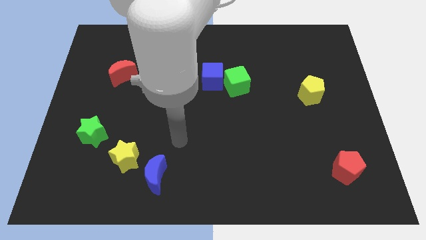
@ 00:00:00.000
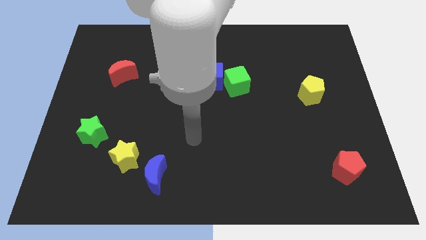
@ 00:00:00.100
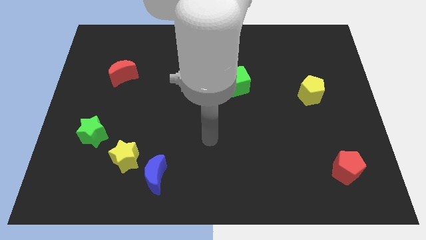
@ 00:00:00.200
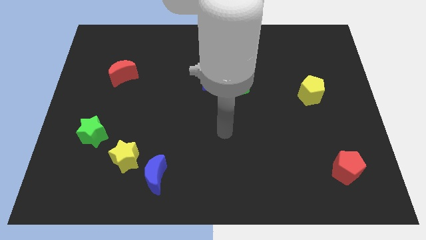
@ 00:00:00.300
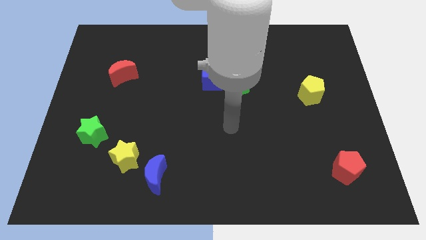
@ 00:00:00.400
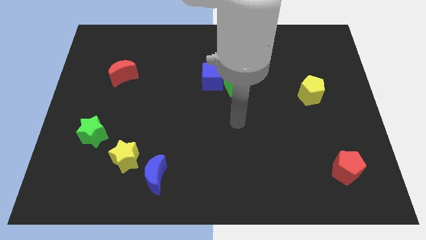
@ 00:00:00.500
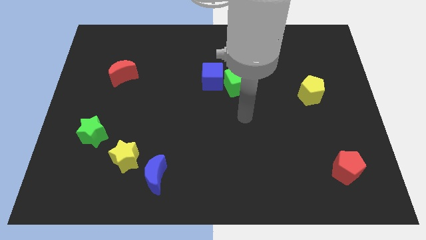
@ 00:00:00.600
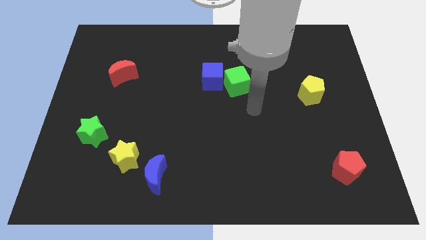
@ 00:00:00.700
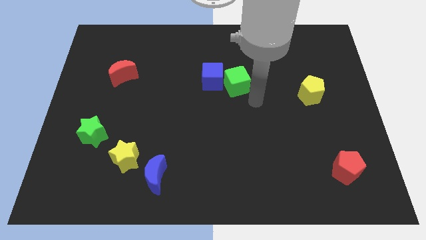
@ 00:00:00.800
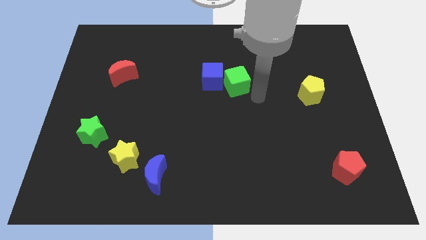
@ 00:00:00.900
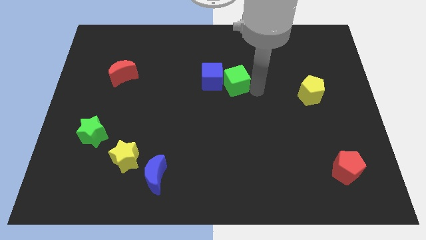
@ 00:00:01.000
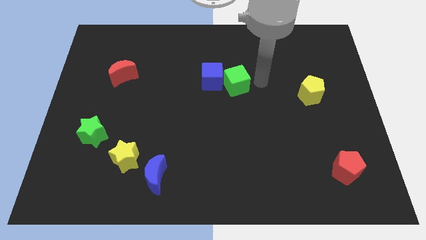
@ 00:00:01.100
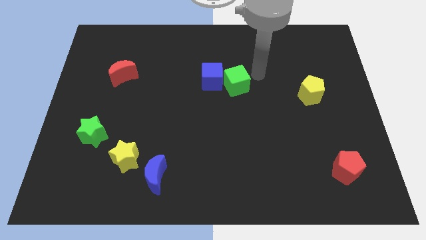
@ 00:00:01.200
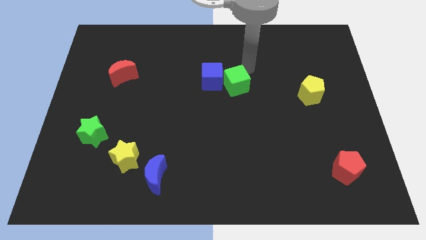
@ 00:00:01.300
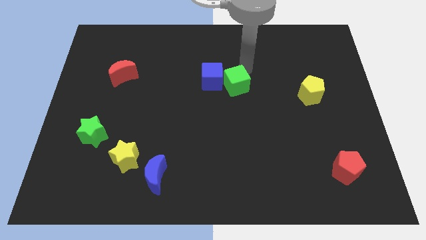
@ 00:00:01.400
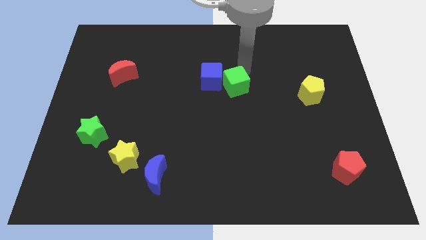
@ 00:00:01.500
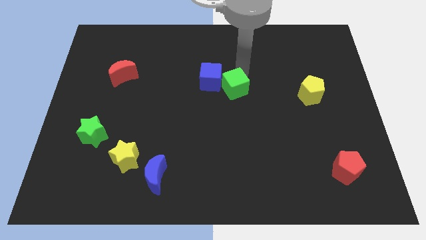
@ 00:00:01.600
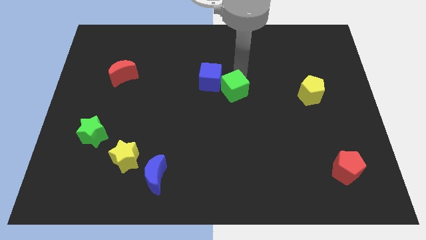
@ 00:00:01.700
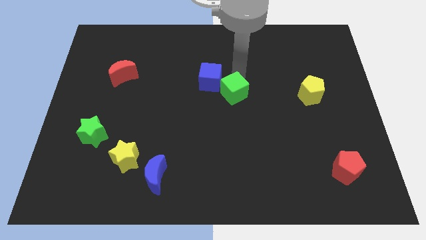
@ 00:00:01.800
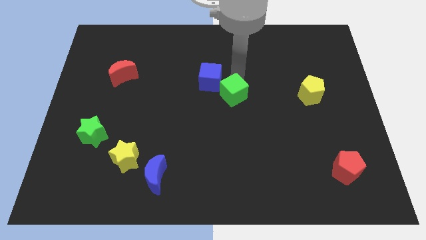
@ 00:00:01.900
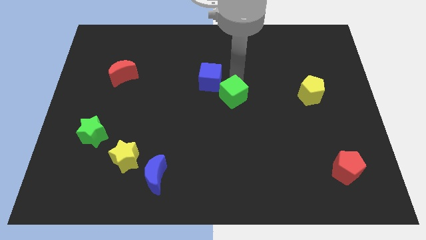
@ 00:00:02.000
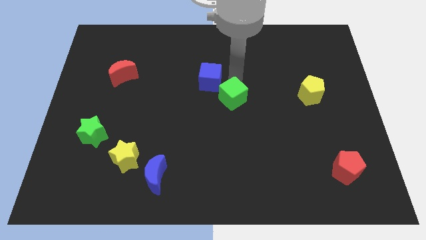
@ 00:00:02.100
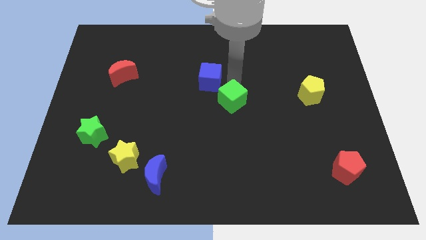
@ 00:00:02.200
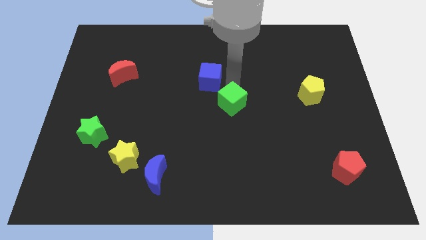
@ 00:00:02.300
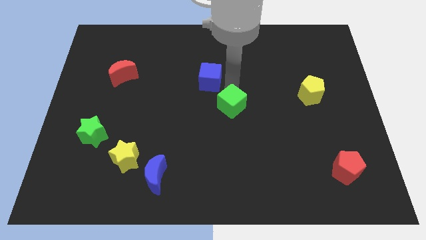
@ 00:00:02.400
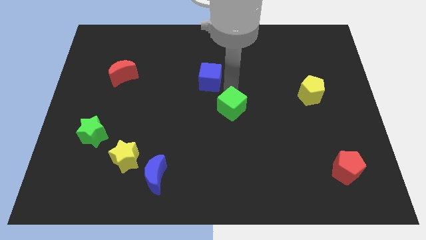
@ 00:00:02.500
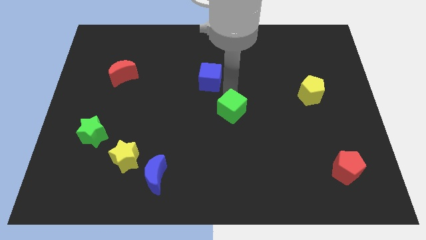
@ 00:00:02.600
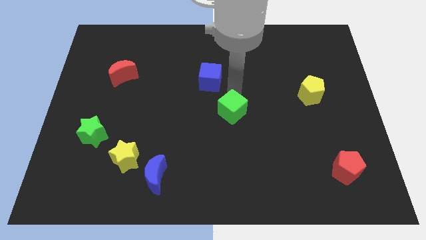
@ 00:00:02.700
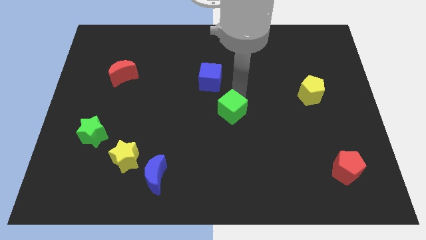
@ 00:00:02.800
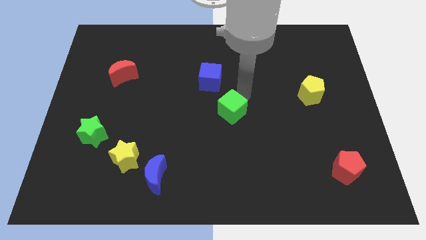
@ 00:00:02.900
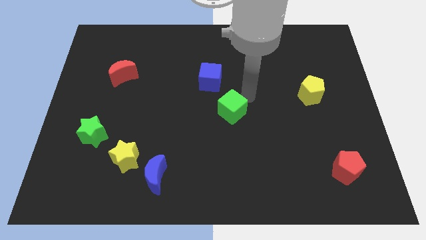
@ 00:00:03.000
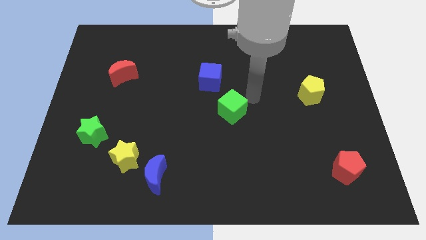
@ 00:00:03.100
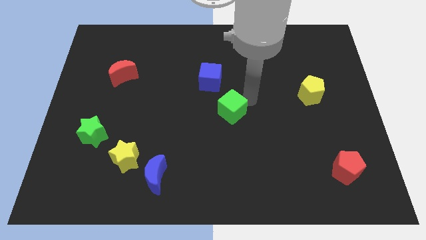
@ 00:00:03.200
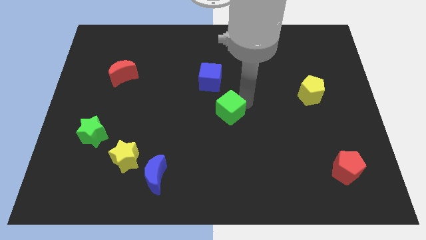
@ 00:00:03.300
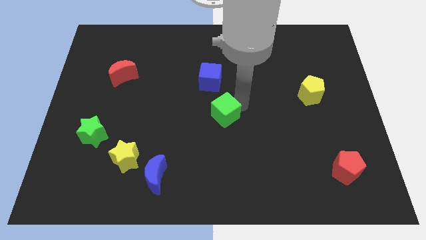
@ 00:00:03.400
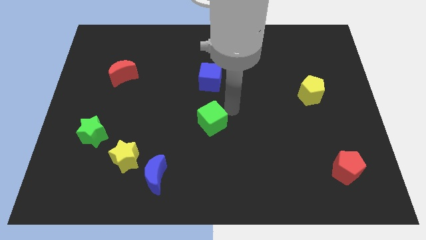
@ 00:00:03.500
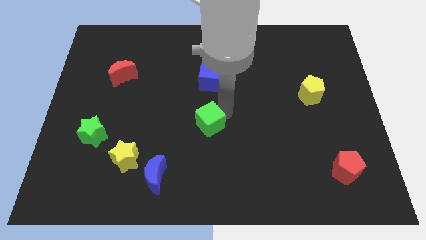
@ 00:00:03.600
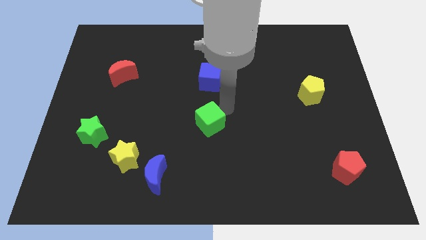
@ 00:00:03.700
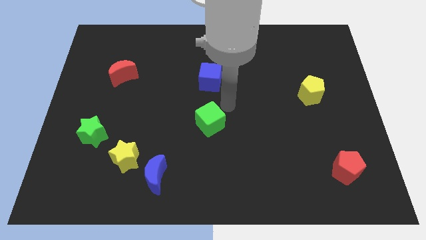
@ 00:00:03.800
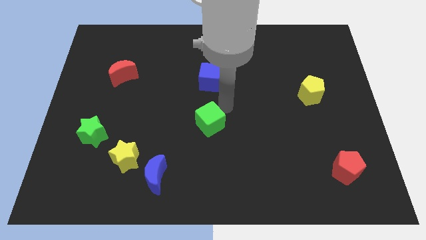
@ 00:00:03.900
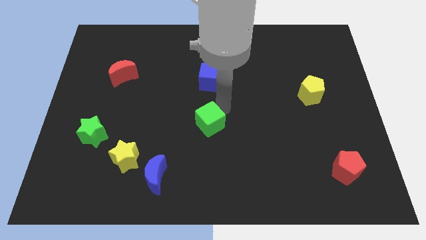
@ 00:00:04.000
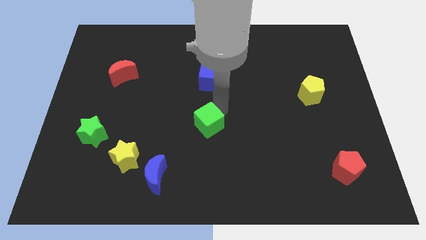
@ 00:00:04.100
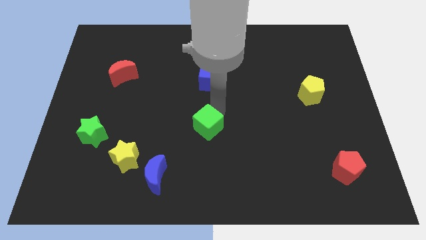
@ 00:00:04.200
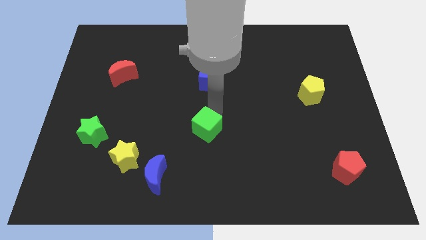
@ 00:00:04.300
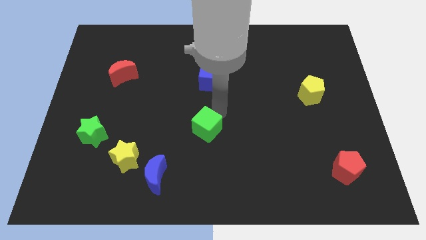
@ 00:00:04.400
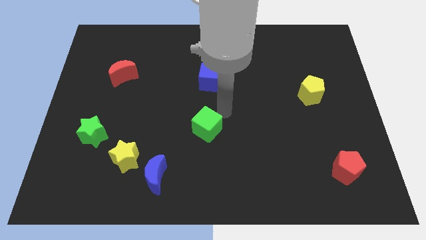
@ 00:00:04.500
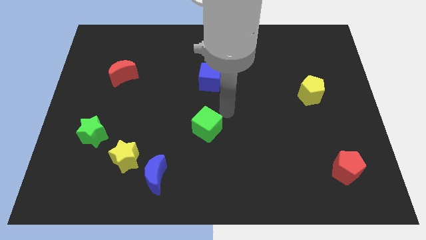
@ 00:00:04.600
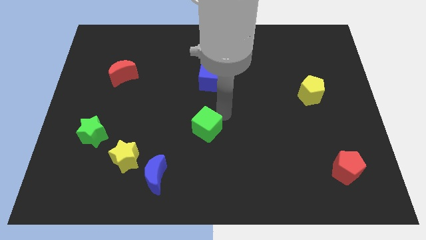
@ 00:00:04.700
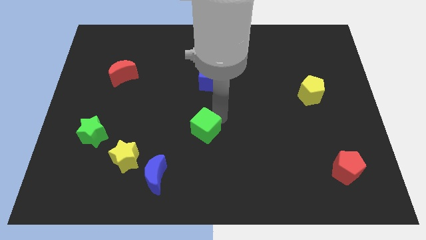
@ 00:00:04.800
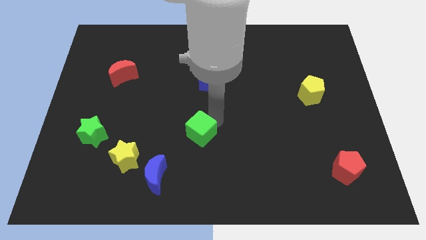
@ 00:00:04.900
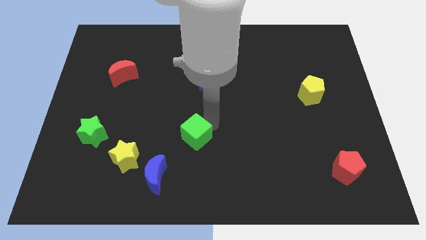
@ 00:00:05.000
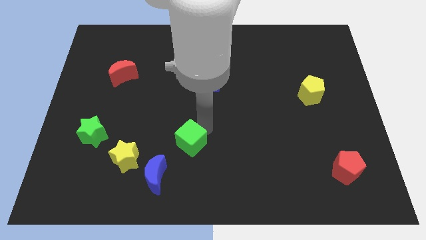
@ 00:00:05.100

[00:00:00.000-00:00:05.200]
move the green cube to the right side of the yellow star

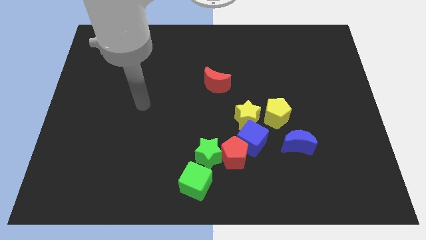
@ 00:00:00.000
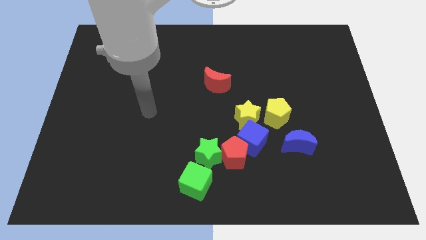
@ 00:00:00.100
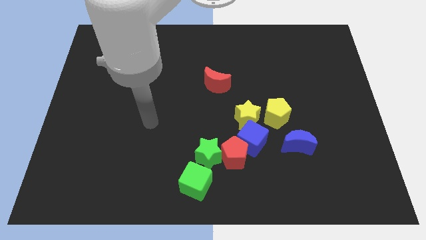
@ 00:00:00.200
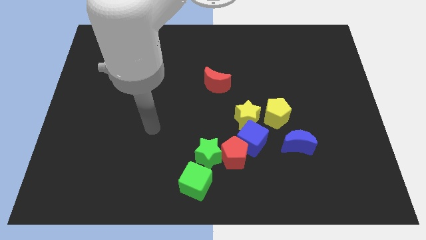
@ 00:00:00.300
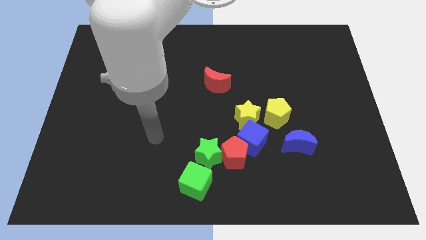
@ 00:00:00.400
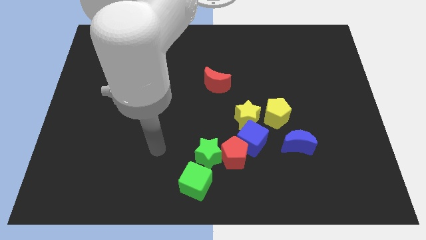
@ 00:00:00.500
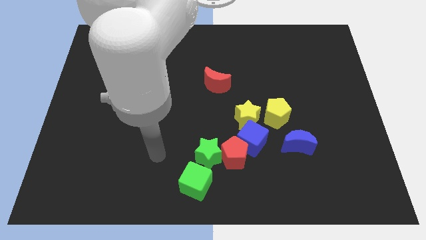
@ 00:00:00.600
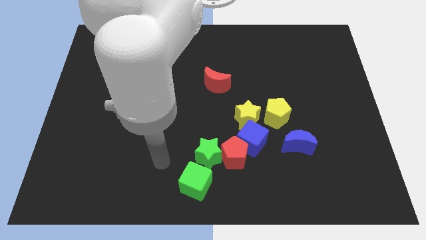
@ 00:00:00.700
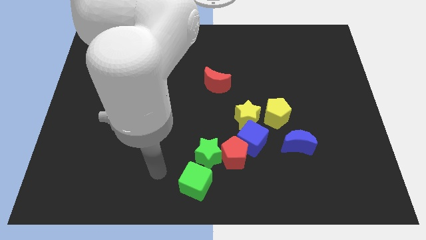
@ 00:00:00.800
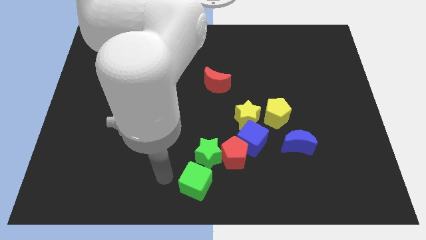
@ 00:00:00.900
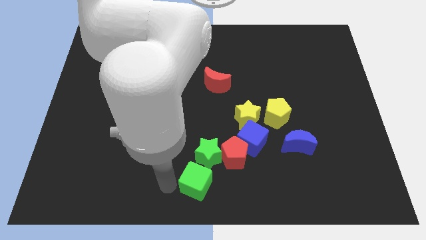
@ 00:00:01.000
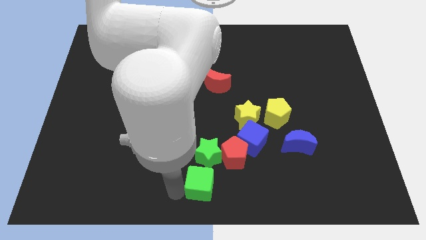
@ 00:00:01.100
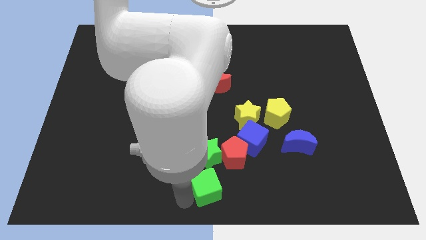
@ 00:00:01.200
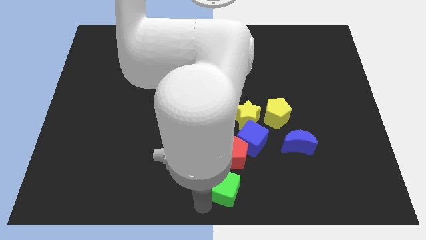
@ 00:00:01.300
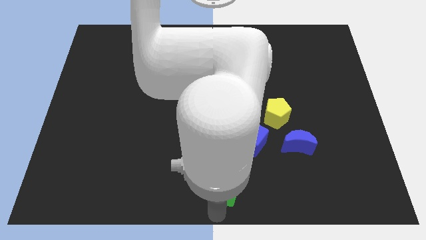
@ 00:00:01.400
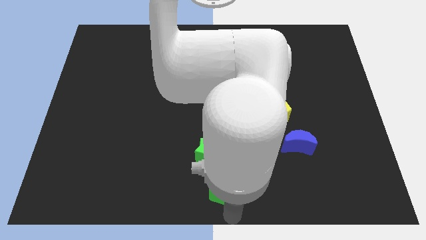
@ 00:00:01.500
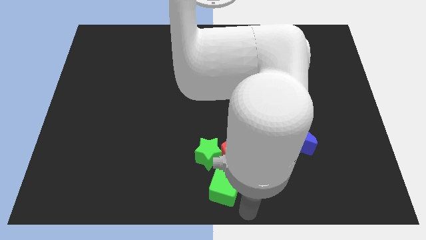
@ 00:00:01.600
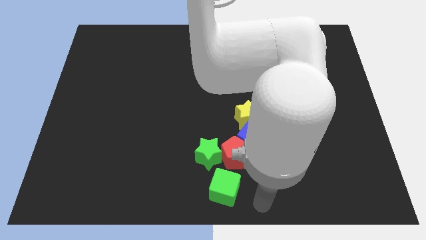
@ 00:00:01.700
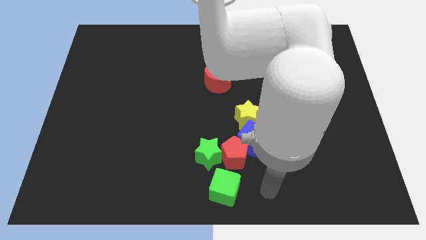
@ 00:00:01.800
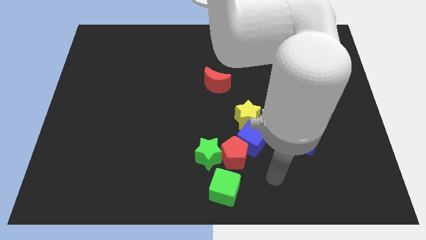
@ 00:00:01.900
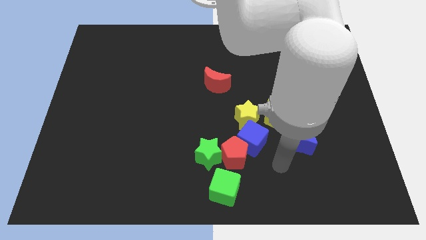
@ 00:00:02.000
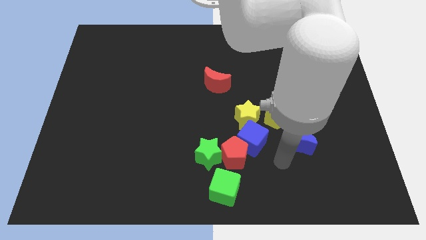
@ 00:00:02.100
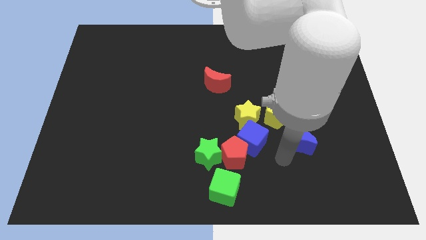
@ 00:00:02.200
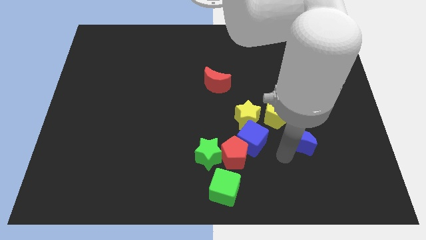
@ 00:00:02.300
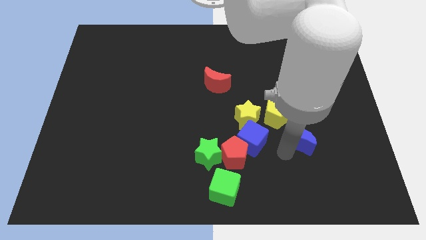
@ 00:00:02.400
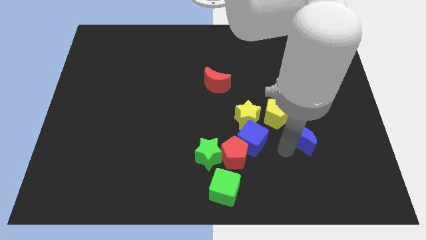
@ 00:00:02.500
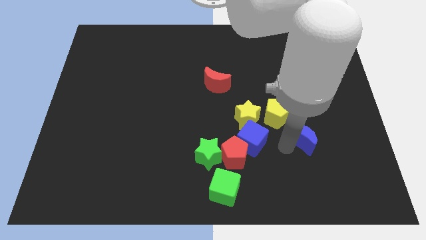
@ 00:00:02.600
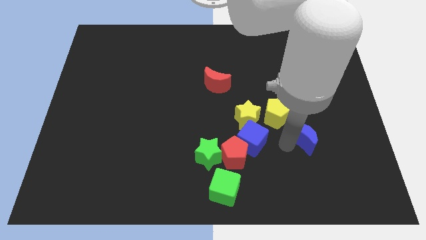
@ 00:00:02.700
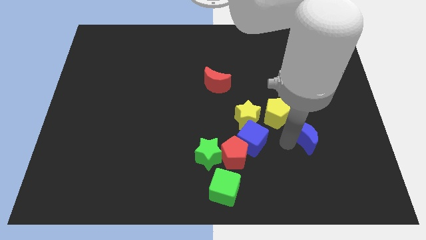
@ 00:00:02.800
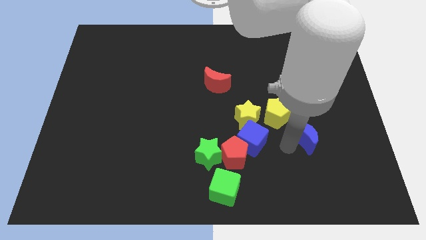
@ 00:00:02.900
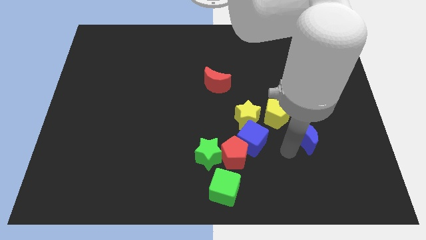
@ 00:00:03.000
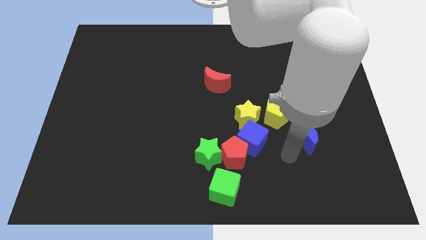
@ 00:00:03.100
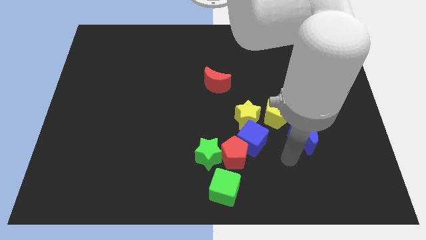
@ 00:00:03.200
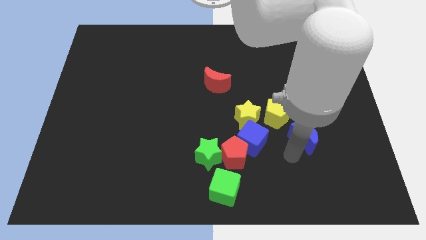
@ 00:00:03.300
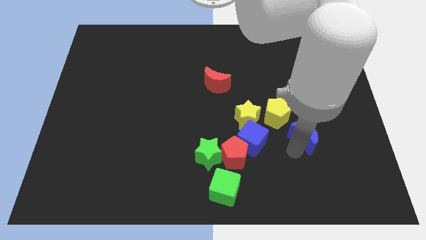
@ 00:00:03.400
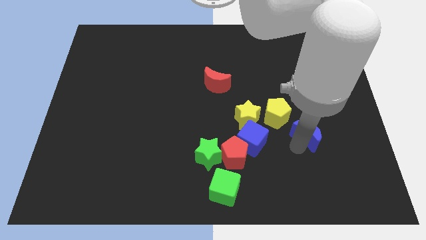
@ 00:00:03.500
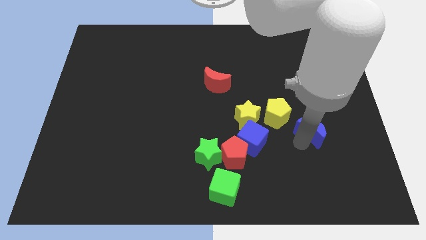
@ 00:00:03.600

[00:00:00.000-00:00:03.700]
move the blue moon just right of the yellow pentagon
